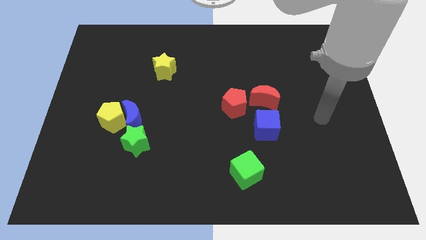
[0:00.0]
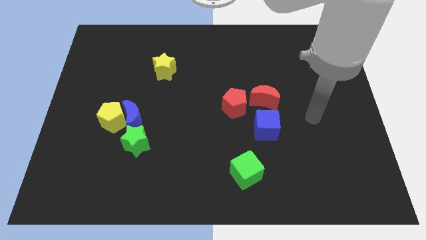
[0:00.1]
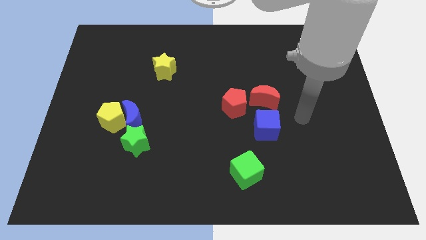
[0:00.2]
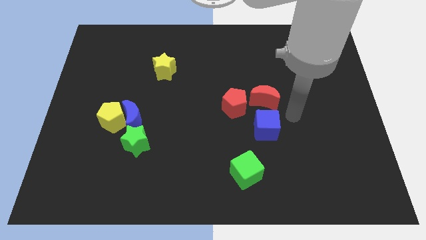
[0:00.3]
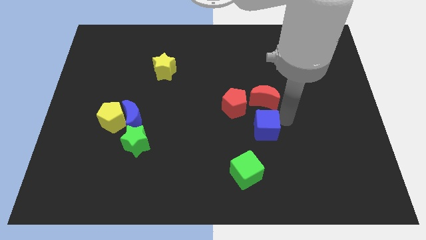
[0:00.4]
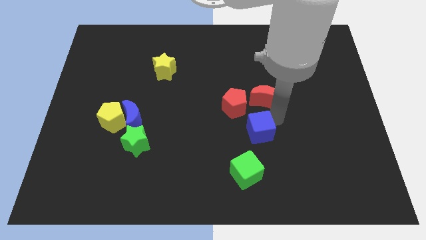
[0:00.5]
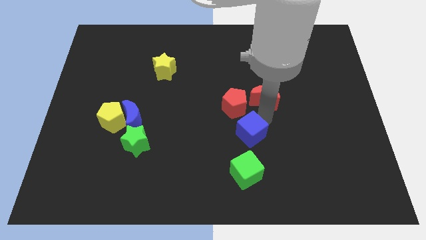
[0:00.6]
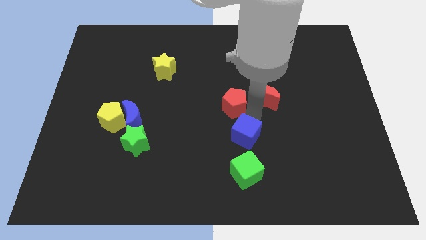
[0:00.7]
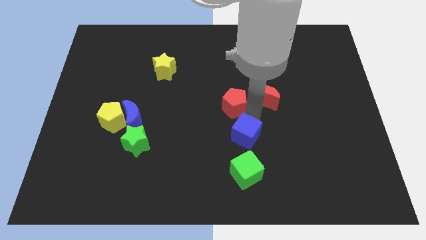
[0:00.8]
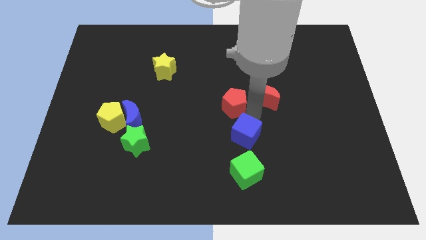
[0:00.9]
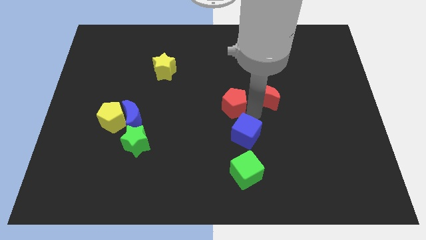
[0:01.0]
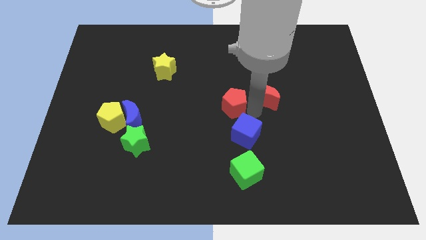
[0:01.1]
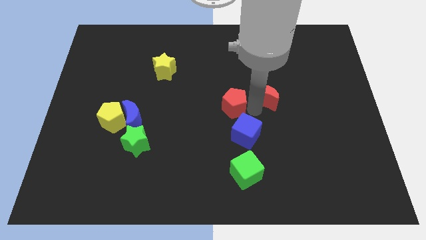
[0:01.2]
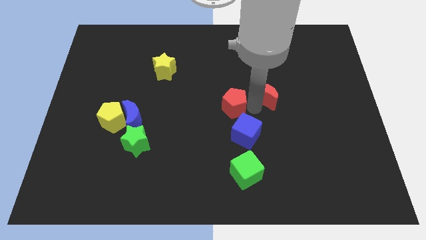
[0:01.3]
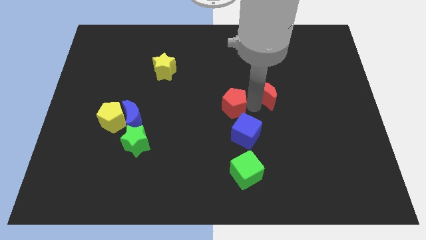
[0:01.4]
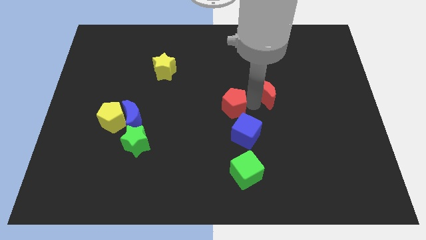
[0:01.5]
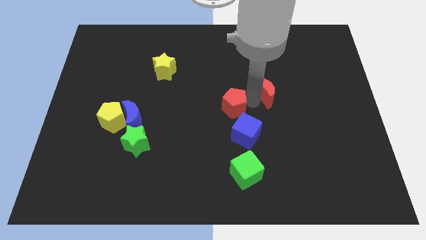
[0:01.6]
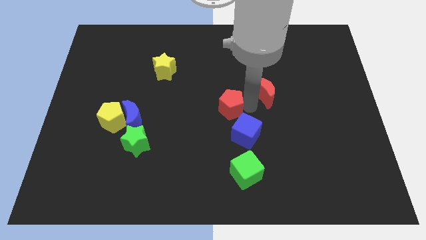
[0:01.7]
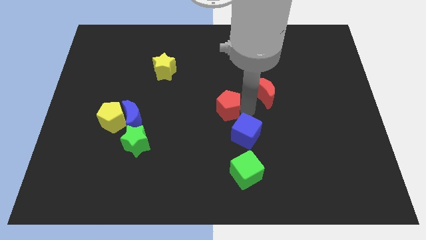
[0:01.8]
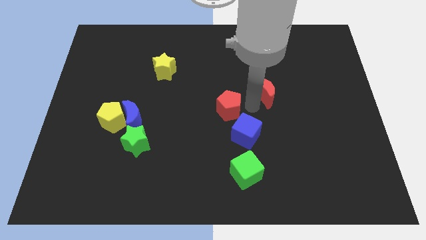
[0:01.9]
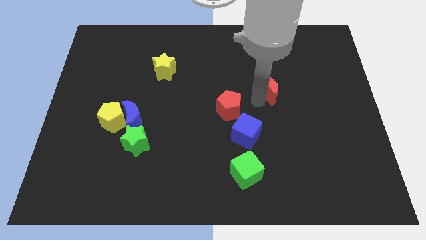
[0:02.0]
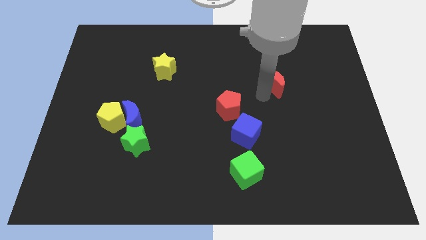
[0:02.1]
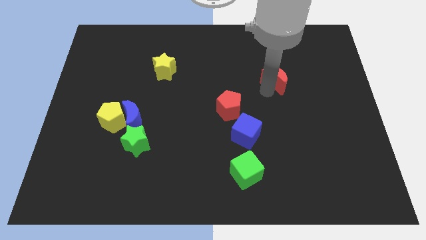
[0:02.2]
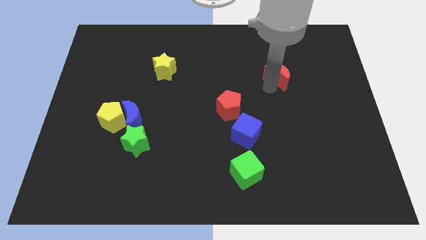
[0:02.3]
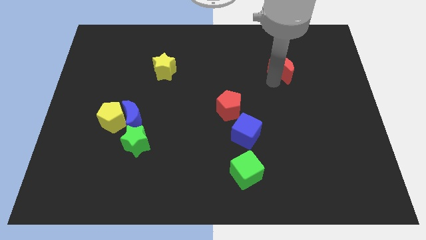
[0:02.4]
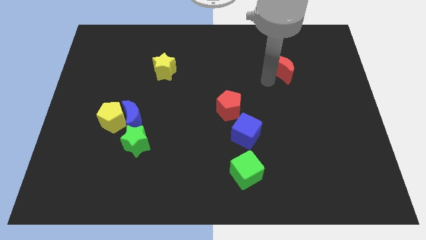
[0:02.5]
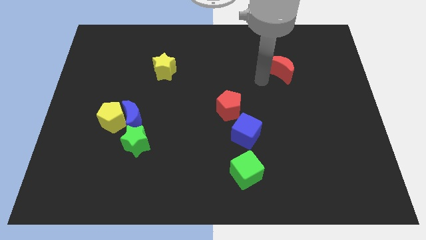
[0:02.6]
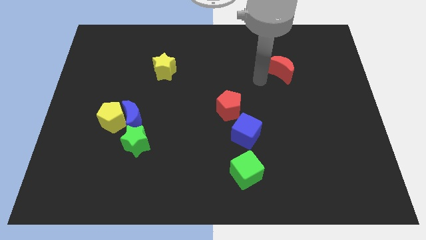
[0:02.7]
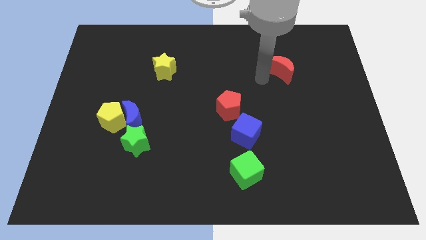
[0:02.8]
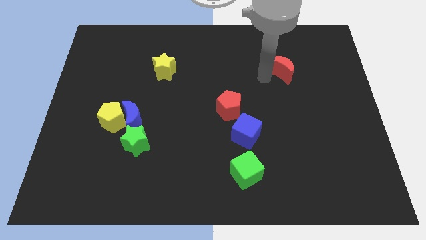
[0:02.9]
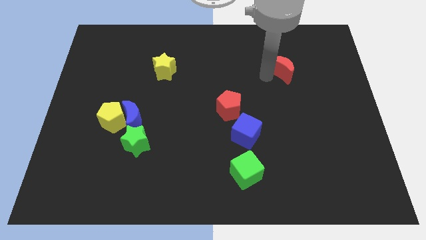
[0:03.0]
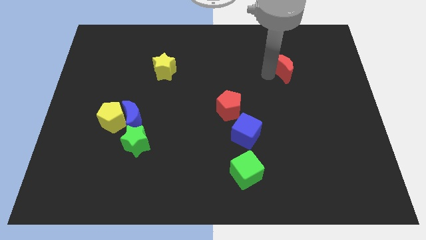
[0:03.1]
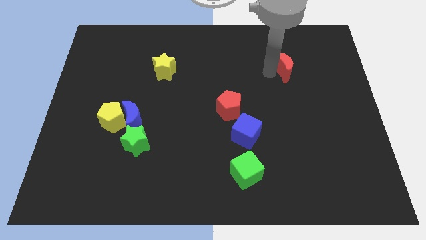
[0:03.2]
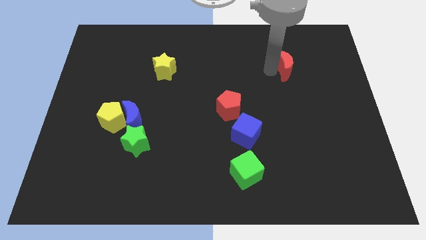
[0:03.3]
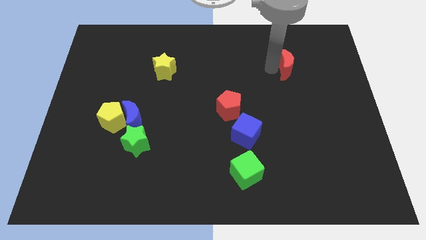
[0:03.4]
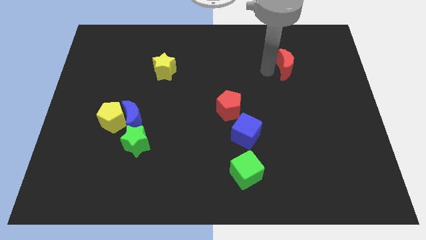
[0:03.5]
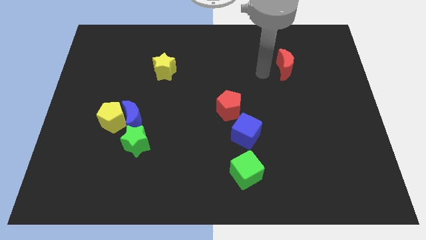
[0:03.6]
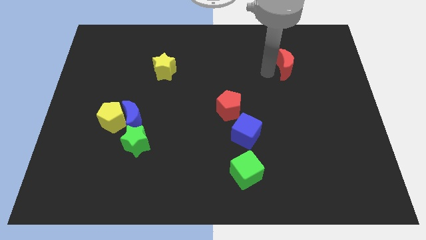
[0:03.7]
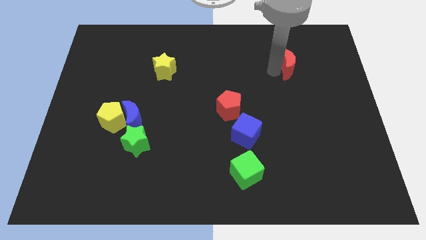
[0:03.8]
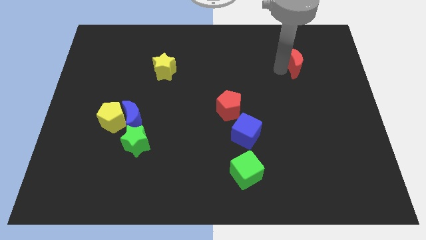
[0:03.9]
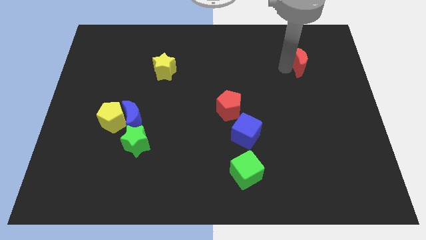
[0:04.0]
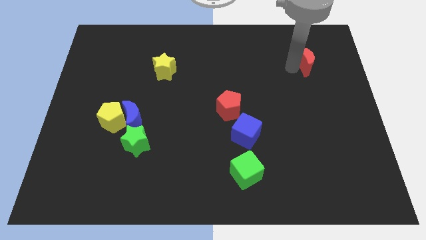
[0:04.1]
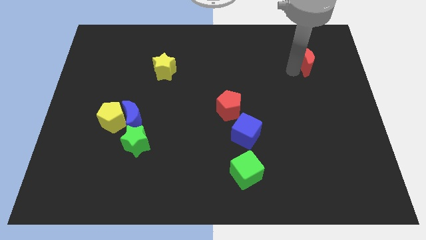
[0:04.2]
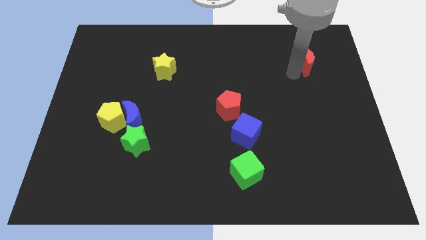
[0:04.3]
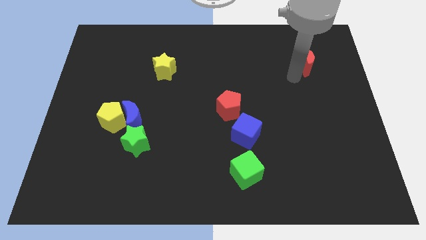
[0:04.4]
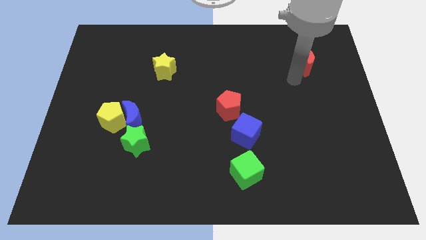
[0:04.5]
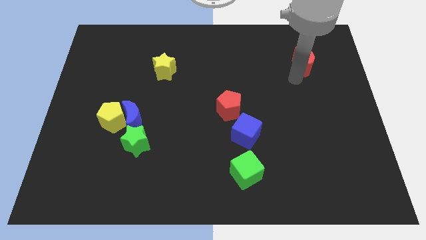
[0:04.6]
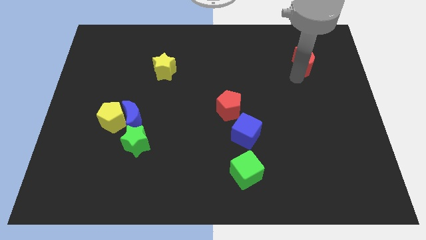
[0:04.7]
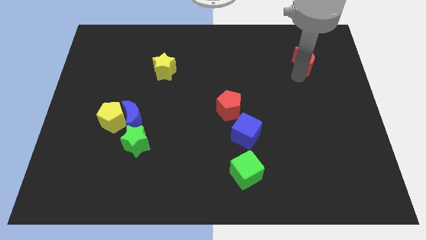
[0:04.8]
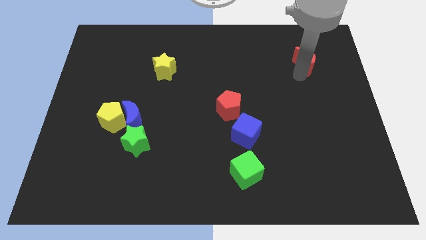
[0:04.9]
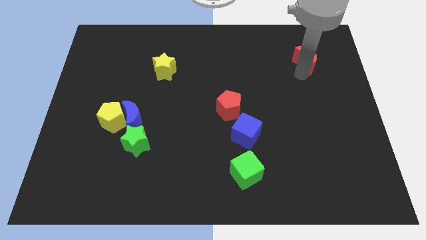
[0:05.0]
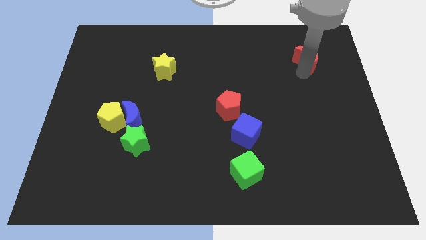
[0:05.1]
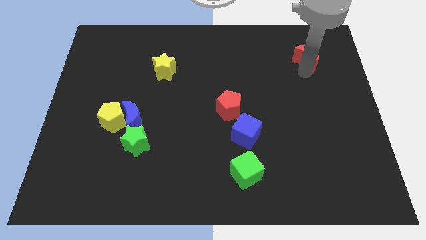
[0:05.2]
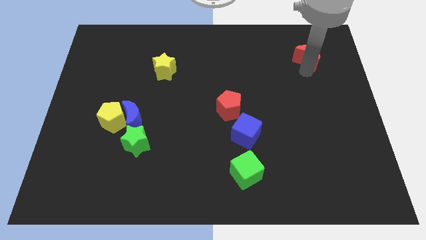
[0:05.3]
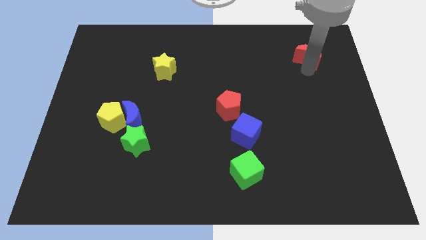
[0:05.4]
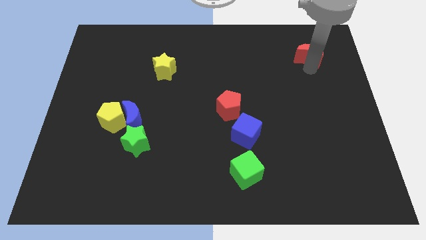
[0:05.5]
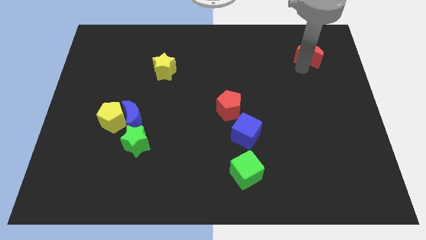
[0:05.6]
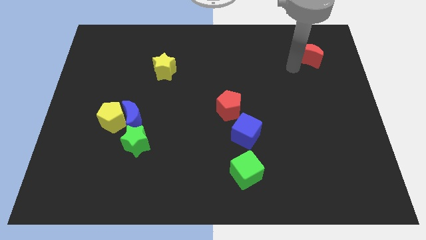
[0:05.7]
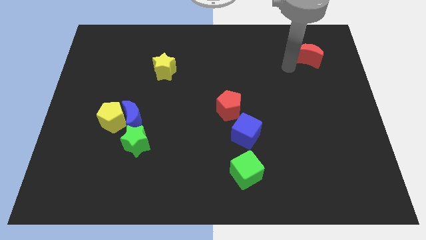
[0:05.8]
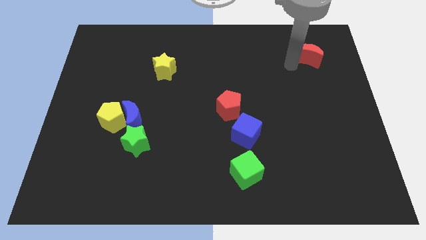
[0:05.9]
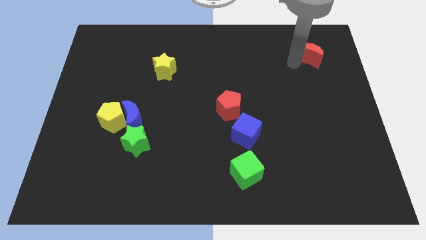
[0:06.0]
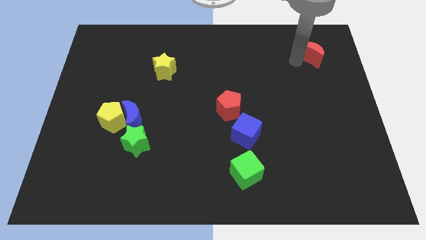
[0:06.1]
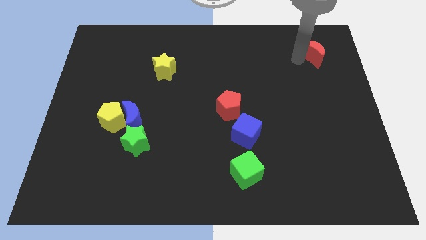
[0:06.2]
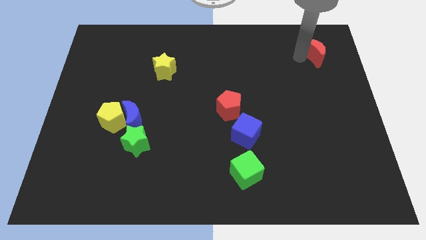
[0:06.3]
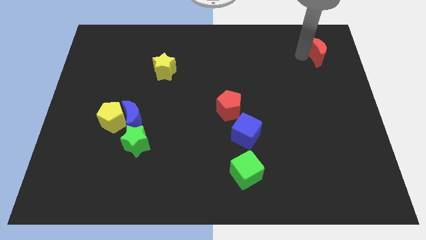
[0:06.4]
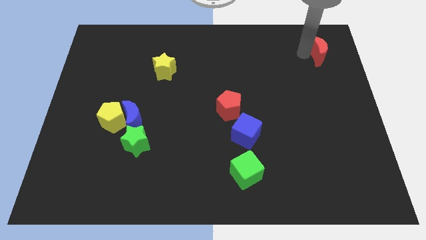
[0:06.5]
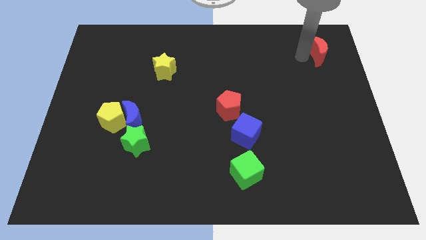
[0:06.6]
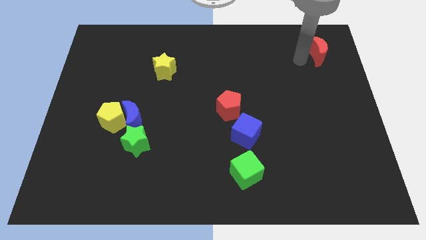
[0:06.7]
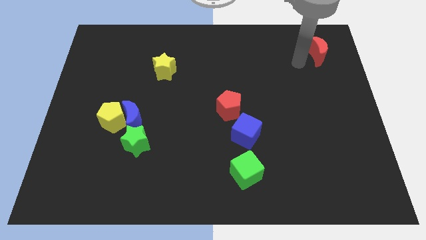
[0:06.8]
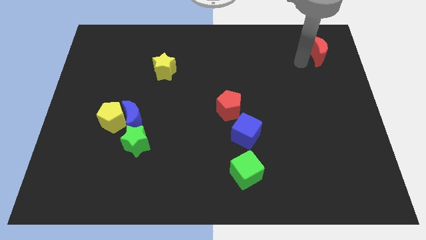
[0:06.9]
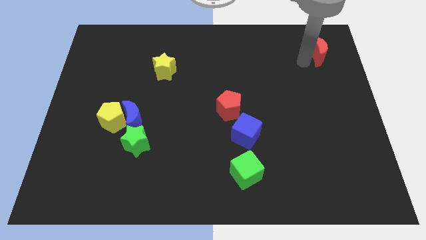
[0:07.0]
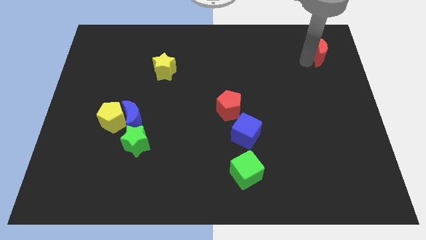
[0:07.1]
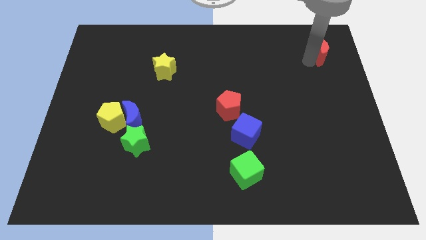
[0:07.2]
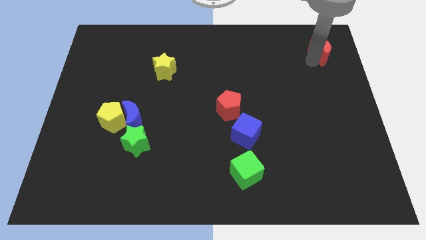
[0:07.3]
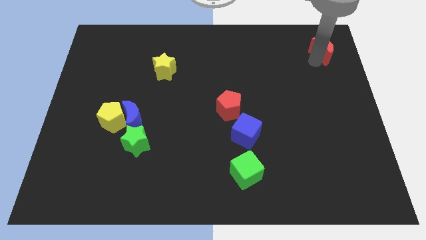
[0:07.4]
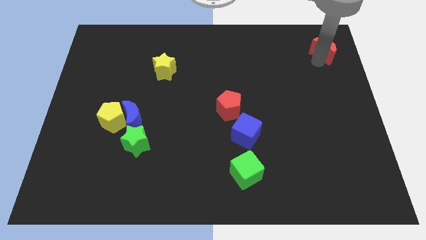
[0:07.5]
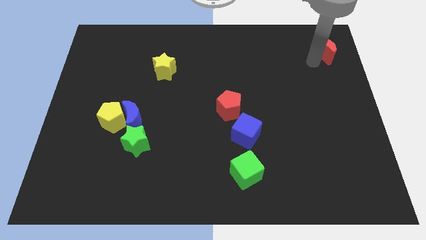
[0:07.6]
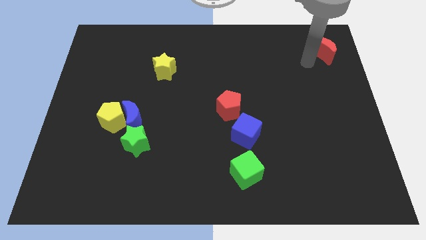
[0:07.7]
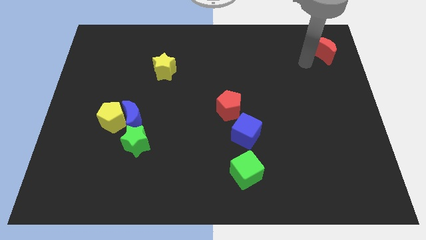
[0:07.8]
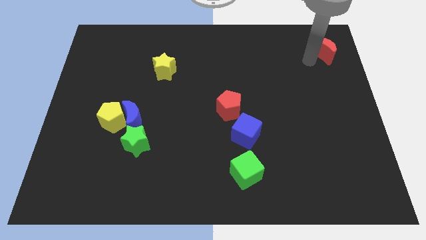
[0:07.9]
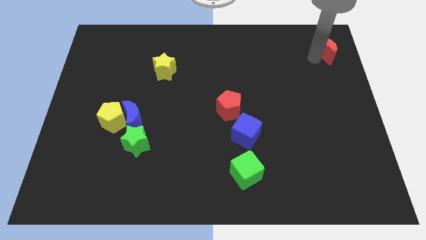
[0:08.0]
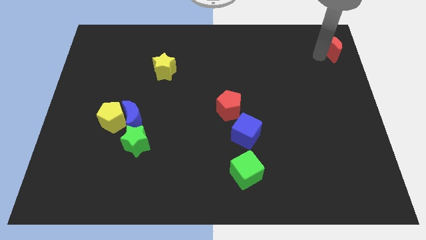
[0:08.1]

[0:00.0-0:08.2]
put the red moon to the upper right corner
